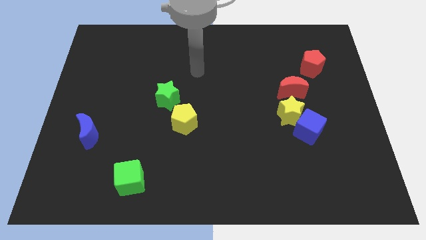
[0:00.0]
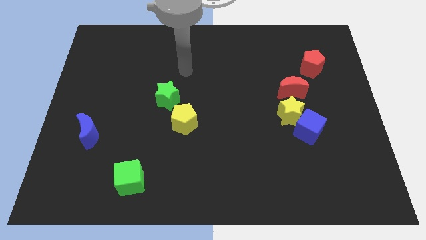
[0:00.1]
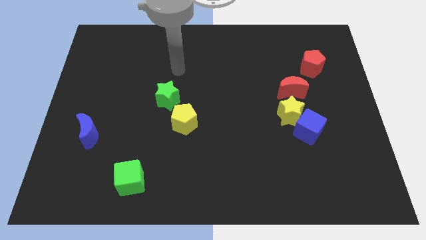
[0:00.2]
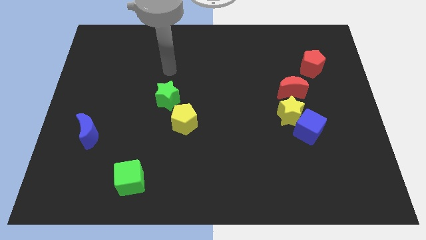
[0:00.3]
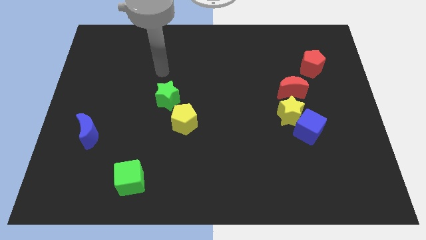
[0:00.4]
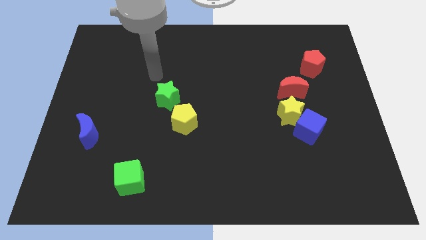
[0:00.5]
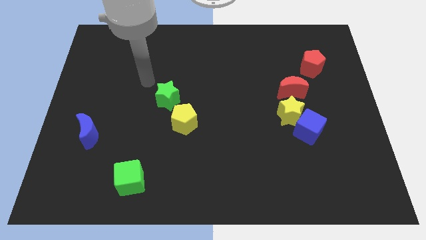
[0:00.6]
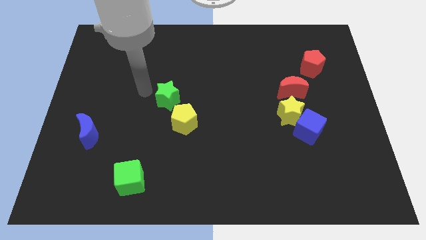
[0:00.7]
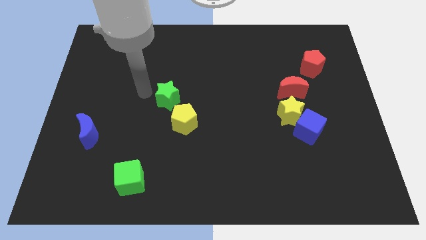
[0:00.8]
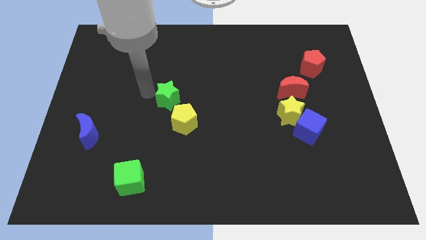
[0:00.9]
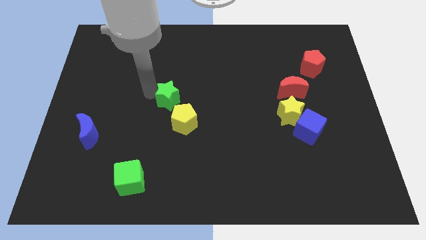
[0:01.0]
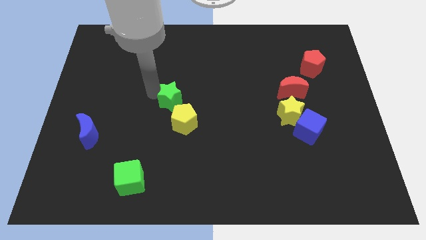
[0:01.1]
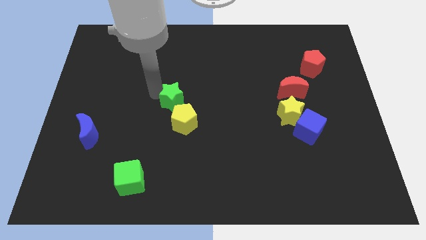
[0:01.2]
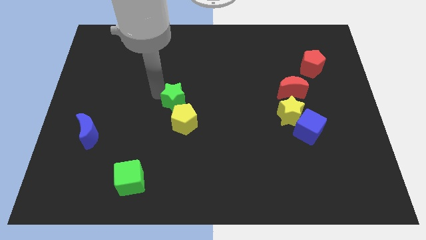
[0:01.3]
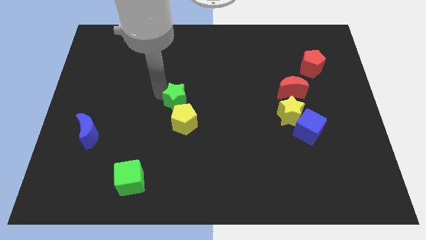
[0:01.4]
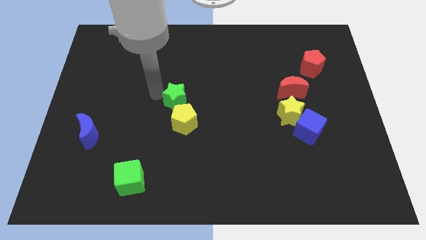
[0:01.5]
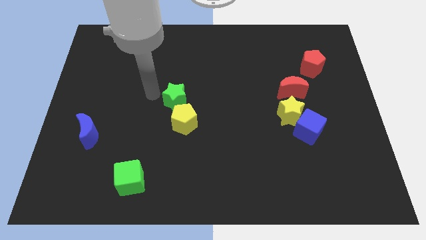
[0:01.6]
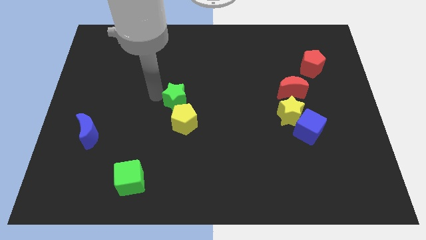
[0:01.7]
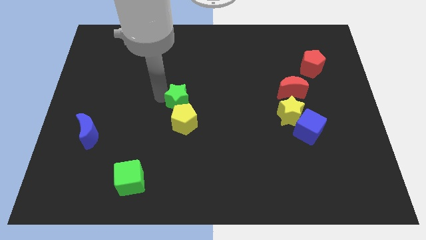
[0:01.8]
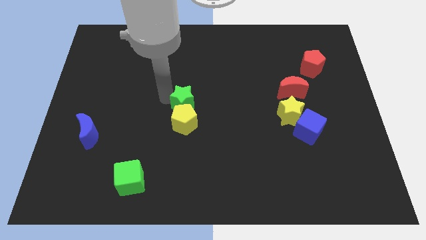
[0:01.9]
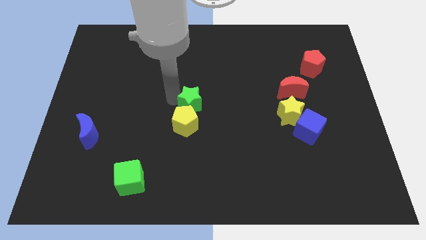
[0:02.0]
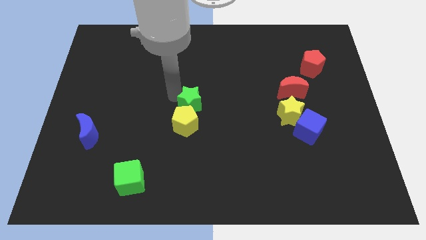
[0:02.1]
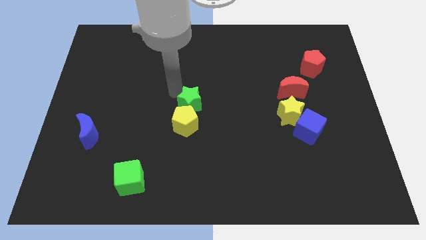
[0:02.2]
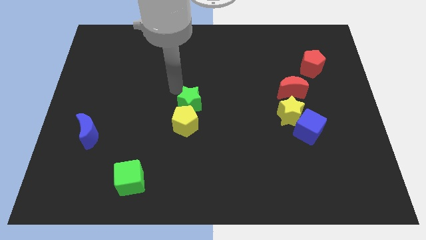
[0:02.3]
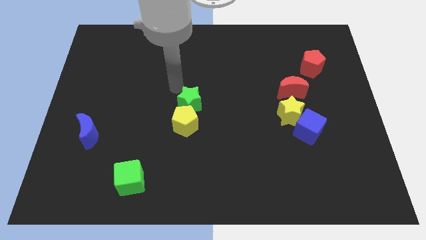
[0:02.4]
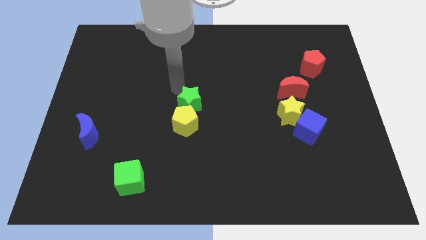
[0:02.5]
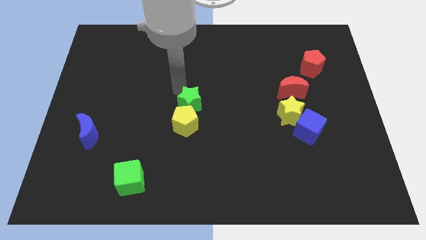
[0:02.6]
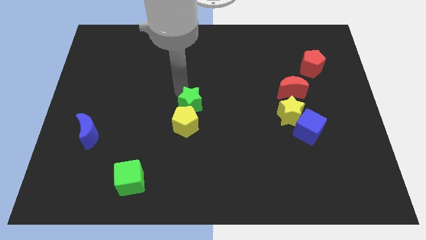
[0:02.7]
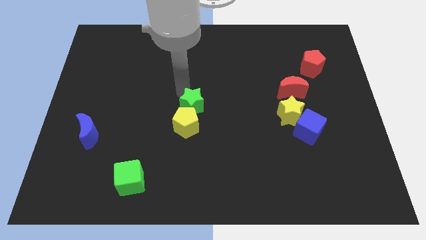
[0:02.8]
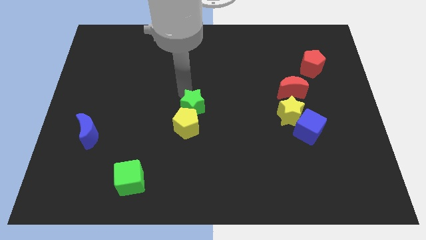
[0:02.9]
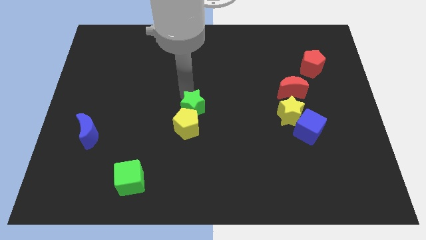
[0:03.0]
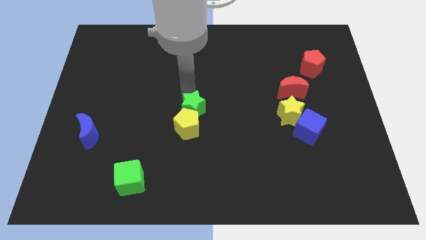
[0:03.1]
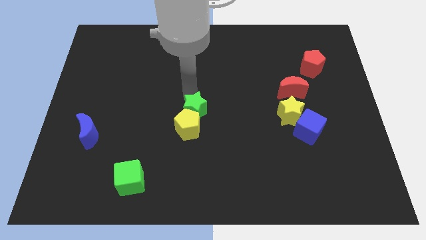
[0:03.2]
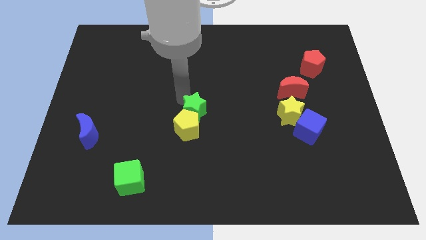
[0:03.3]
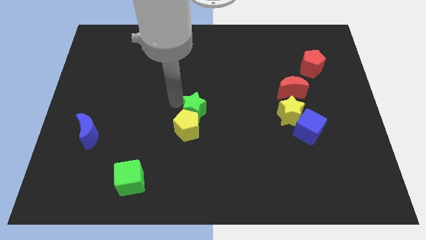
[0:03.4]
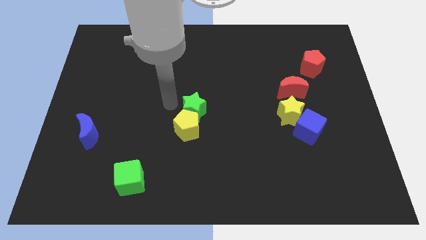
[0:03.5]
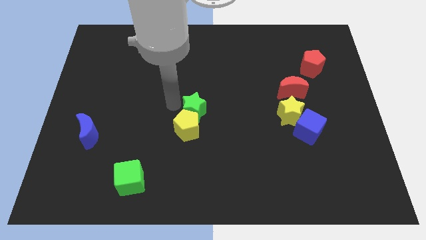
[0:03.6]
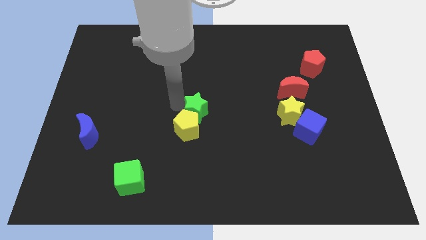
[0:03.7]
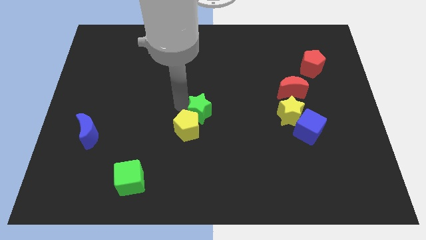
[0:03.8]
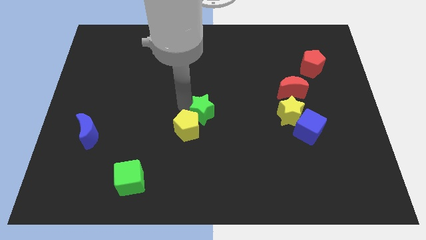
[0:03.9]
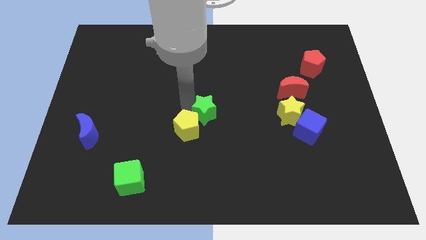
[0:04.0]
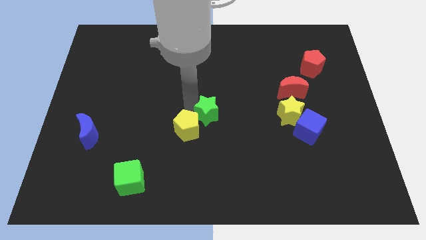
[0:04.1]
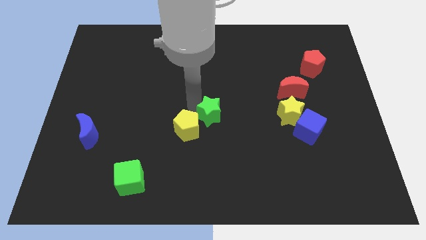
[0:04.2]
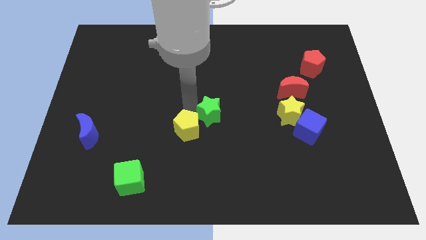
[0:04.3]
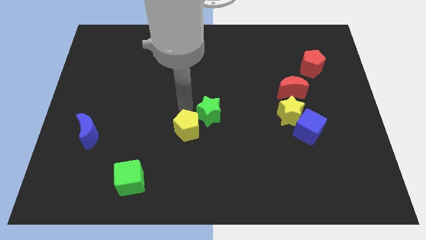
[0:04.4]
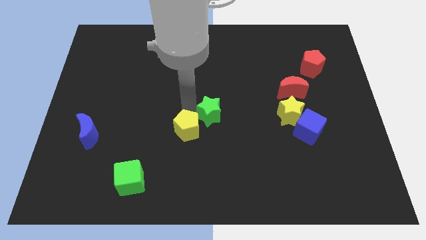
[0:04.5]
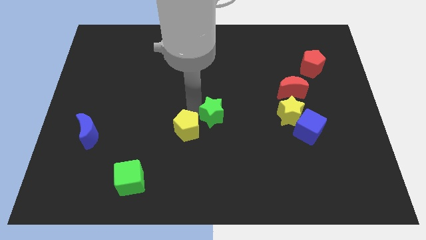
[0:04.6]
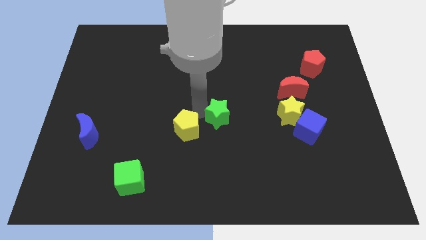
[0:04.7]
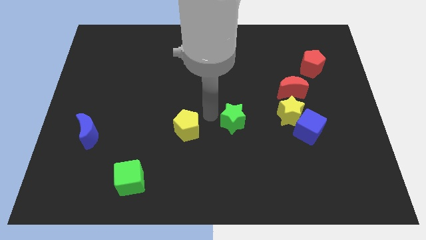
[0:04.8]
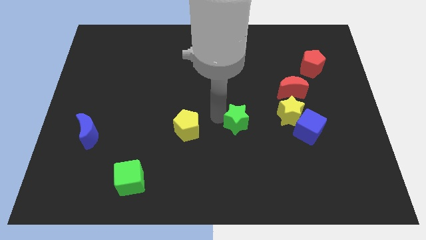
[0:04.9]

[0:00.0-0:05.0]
push the green star just left of the blue cube

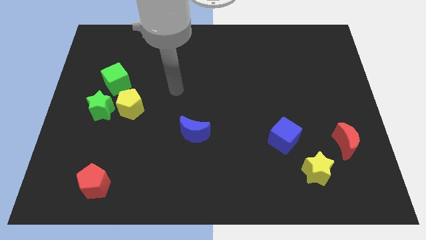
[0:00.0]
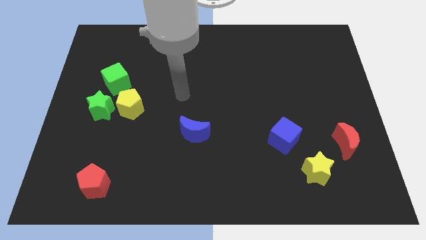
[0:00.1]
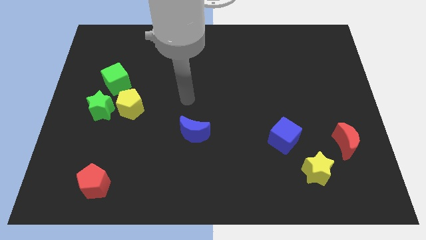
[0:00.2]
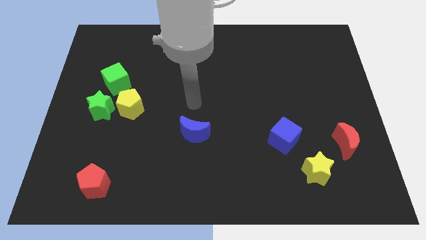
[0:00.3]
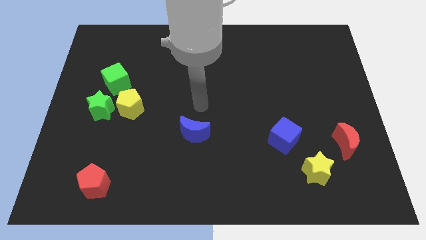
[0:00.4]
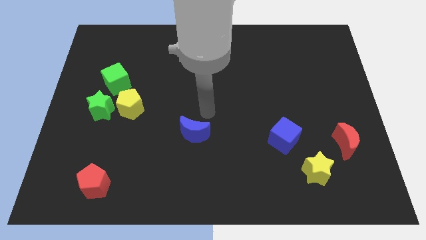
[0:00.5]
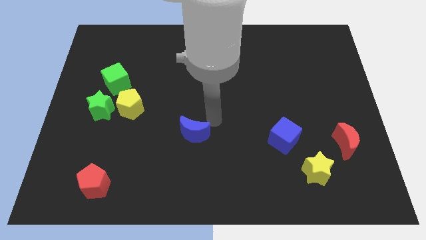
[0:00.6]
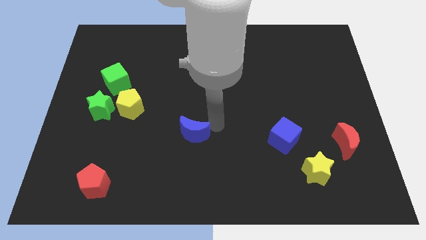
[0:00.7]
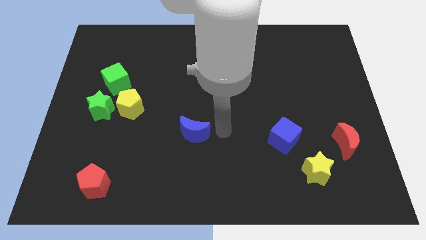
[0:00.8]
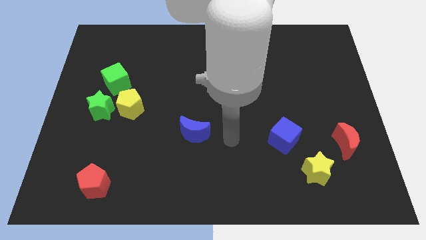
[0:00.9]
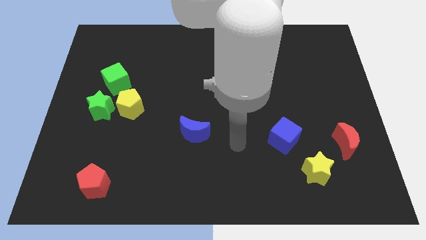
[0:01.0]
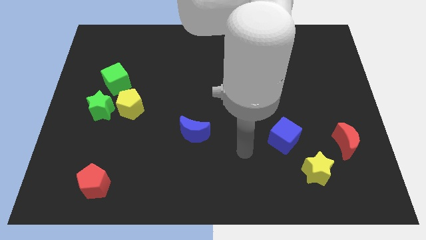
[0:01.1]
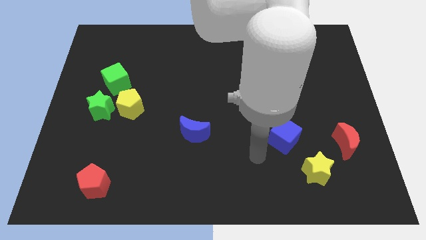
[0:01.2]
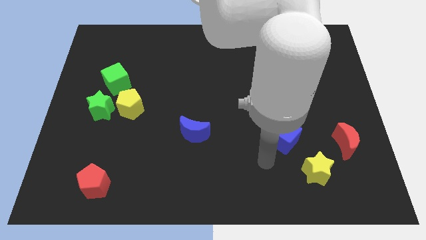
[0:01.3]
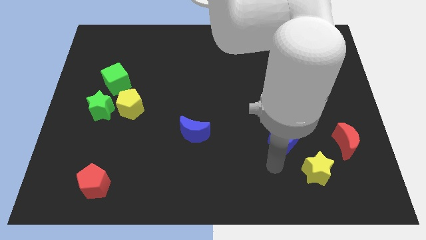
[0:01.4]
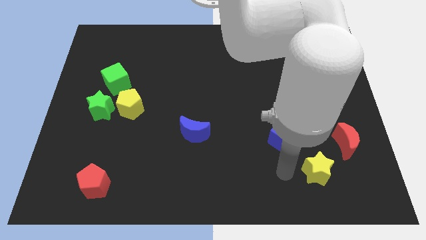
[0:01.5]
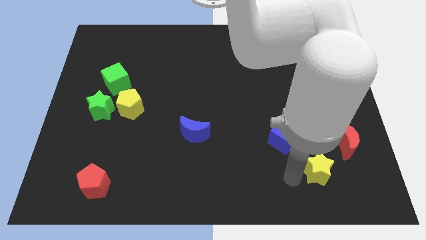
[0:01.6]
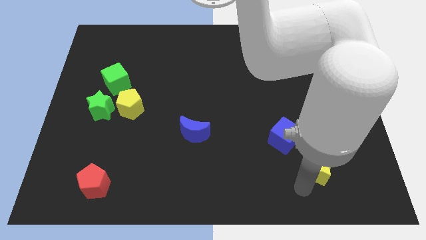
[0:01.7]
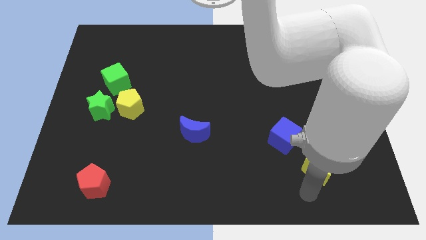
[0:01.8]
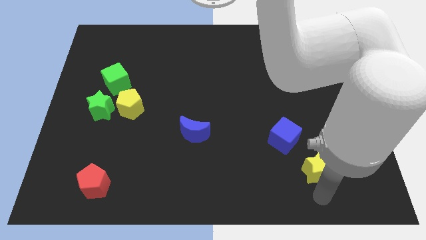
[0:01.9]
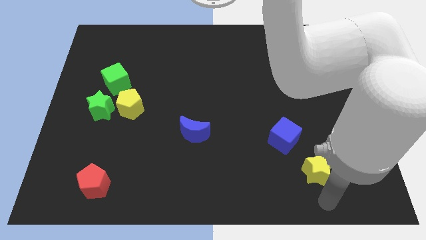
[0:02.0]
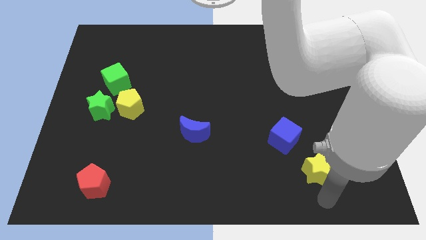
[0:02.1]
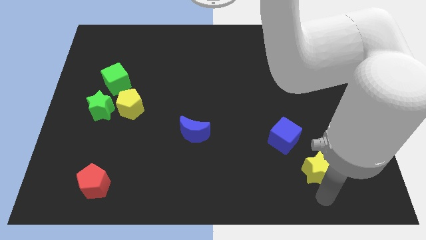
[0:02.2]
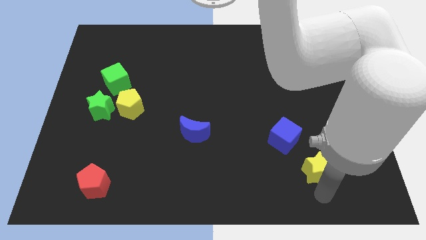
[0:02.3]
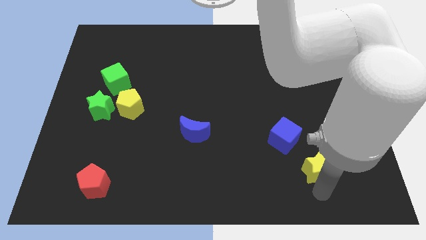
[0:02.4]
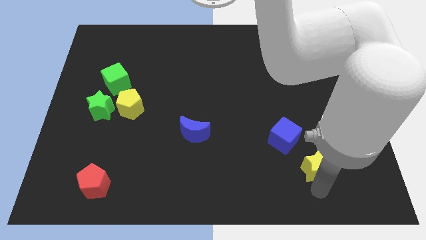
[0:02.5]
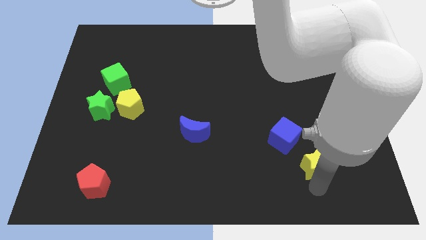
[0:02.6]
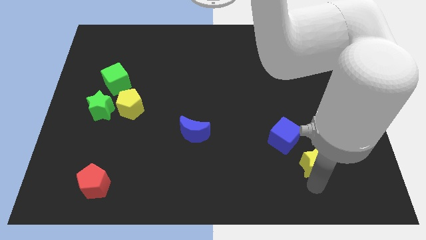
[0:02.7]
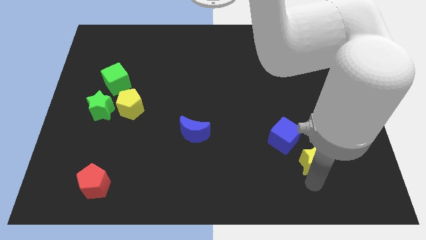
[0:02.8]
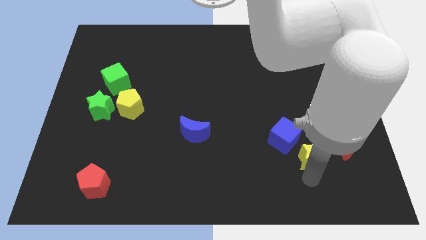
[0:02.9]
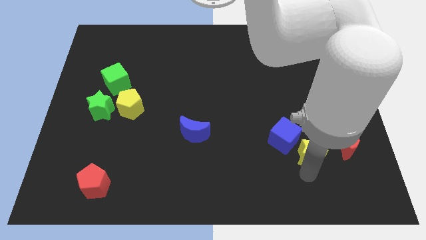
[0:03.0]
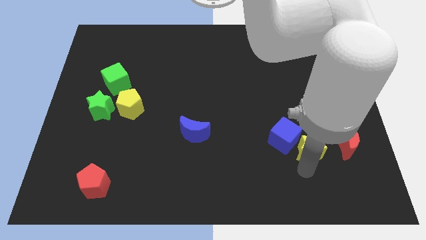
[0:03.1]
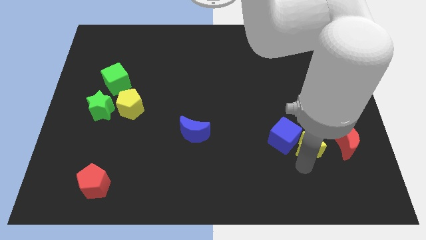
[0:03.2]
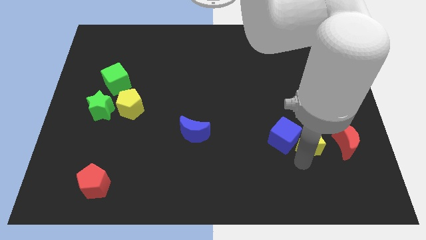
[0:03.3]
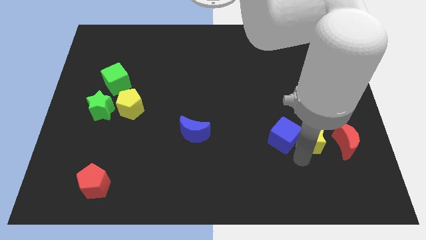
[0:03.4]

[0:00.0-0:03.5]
move the yellow star to the top right of the blue cube
